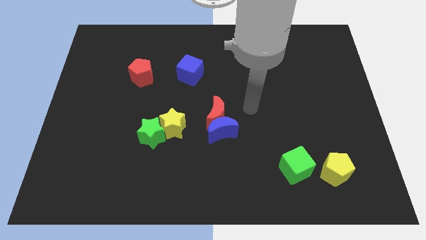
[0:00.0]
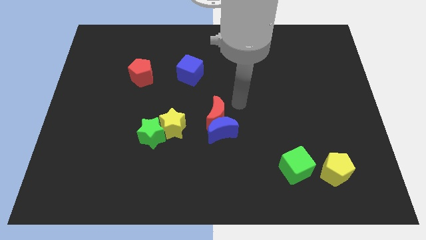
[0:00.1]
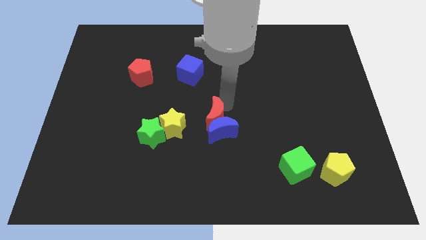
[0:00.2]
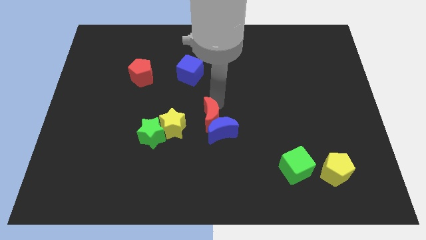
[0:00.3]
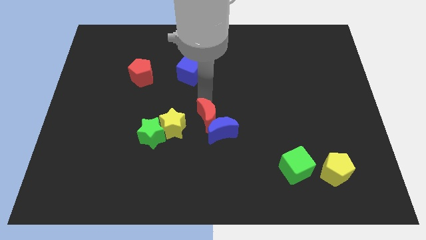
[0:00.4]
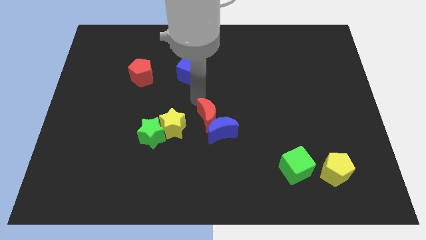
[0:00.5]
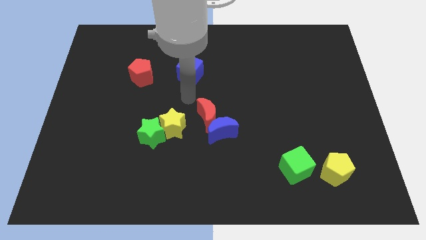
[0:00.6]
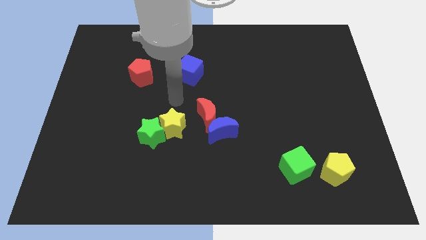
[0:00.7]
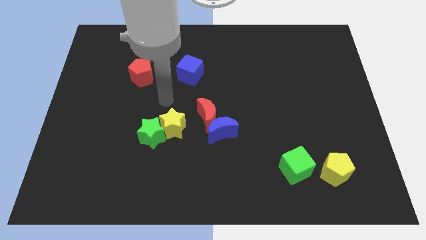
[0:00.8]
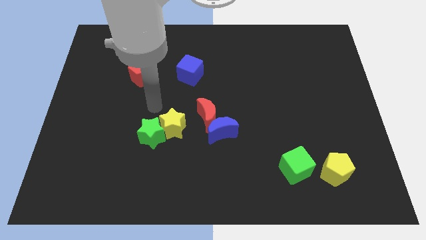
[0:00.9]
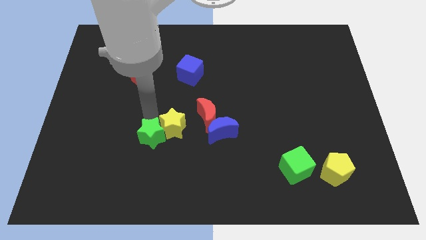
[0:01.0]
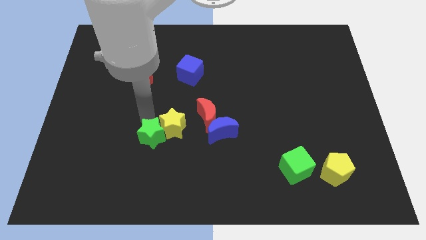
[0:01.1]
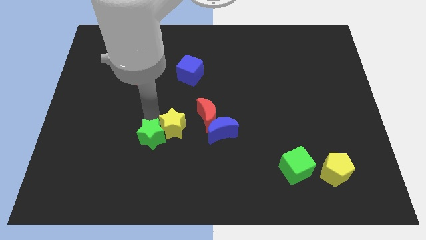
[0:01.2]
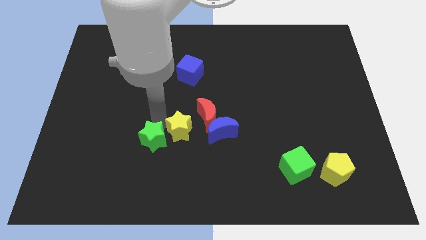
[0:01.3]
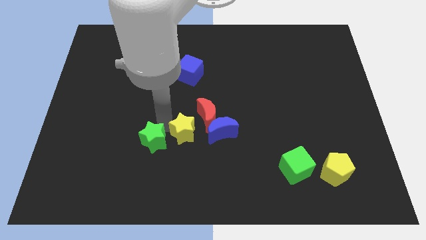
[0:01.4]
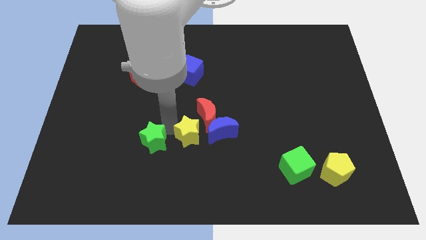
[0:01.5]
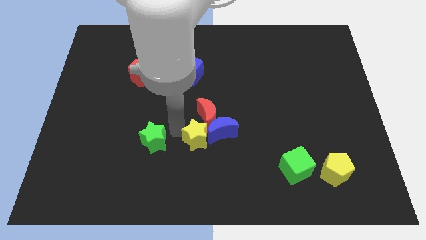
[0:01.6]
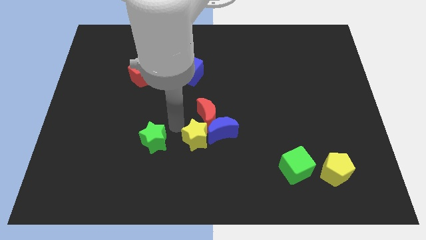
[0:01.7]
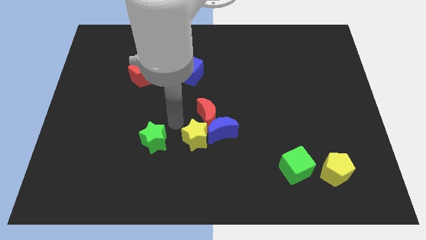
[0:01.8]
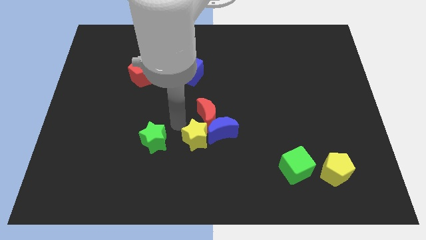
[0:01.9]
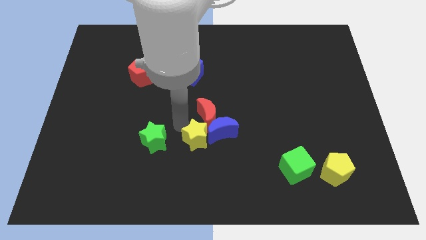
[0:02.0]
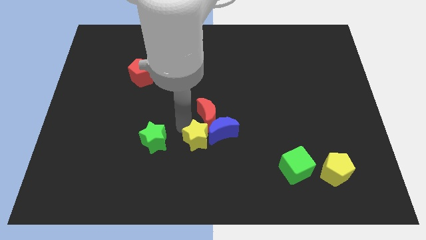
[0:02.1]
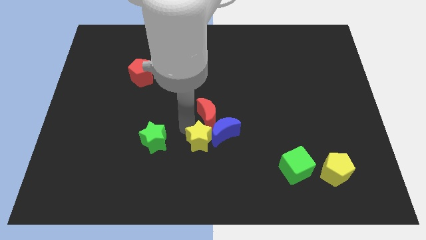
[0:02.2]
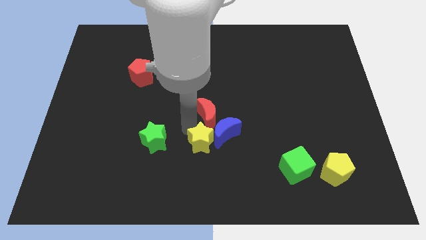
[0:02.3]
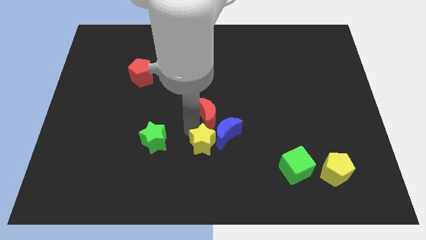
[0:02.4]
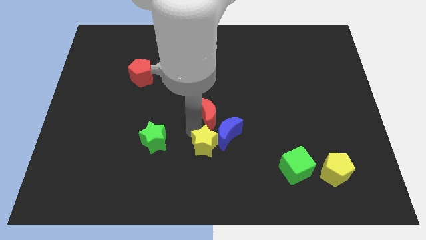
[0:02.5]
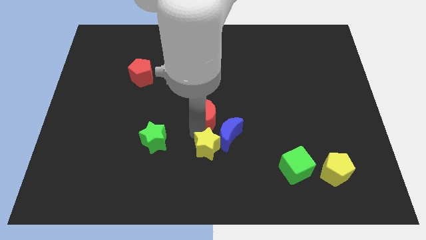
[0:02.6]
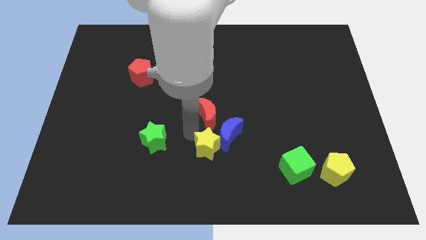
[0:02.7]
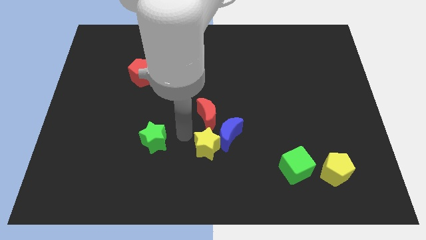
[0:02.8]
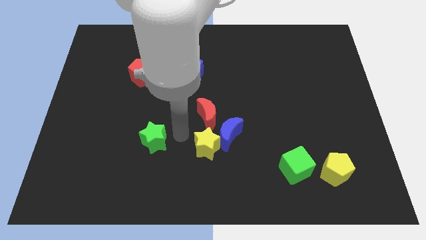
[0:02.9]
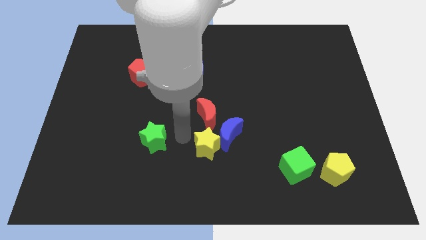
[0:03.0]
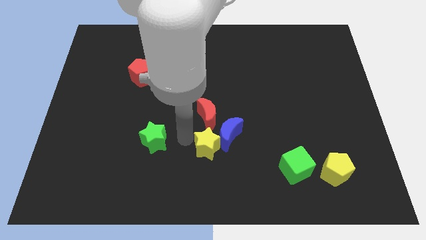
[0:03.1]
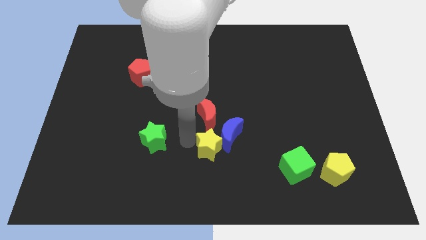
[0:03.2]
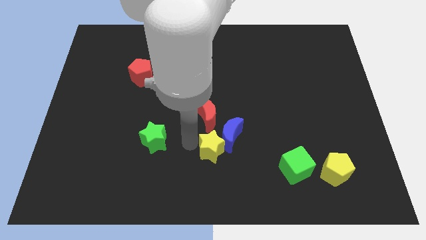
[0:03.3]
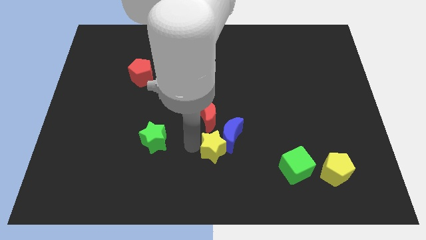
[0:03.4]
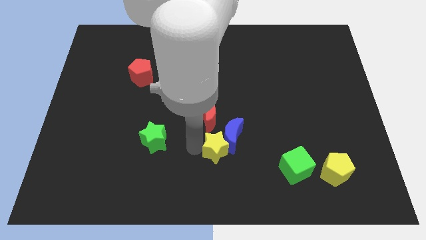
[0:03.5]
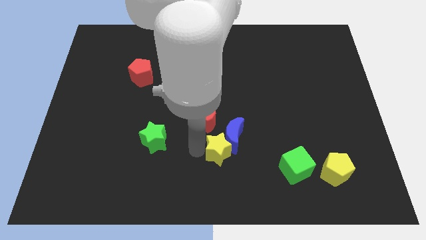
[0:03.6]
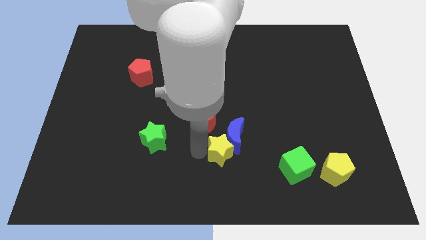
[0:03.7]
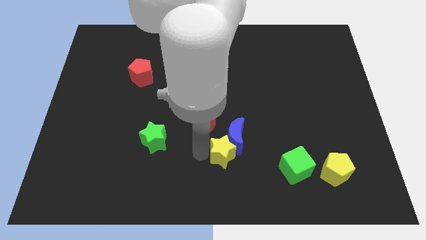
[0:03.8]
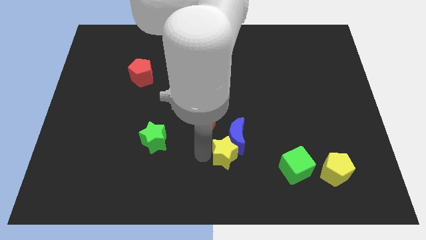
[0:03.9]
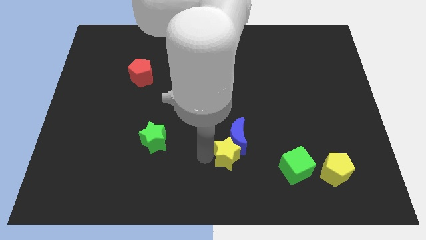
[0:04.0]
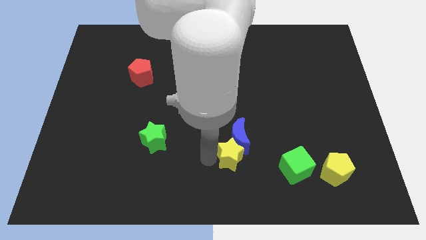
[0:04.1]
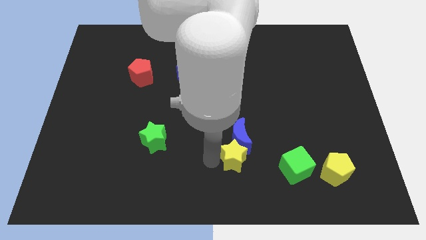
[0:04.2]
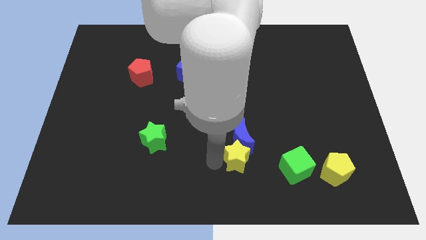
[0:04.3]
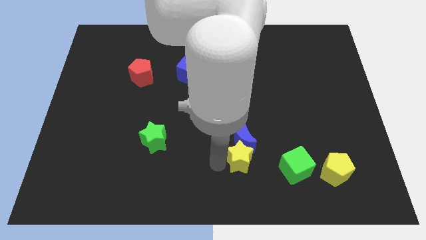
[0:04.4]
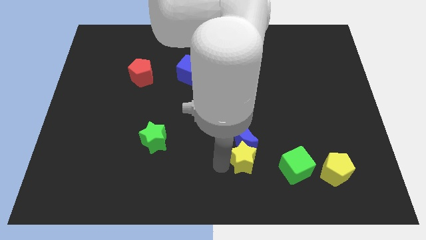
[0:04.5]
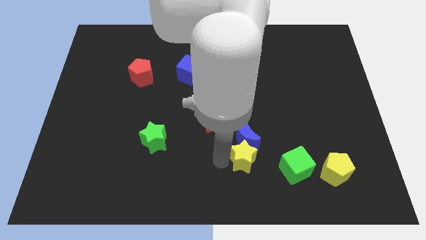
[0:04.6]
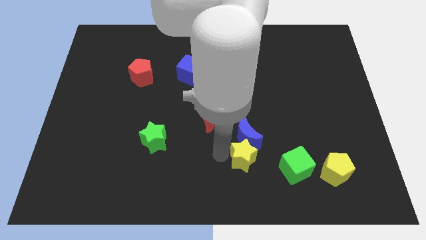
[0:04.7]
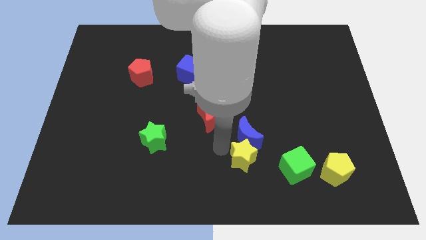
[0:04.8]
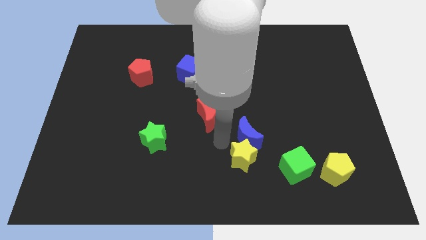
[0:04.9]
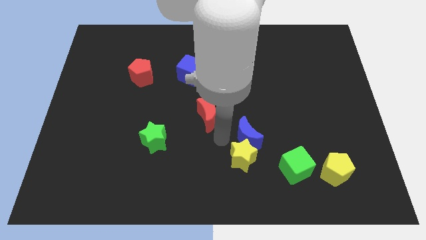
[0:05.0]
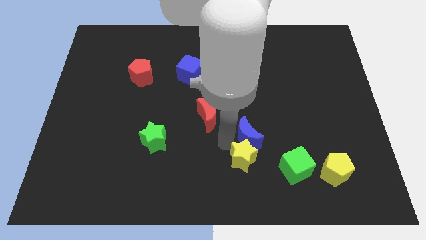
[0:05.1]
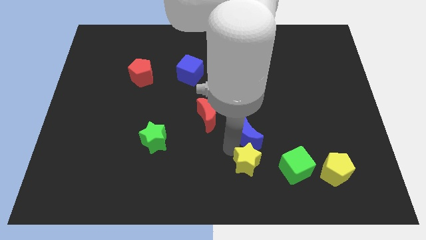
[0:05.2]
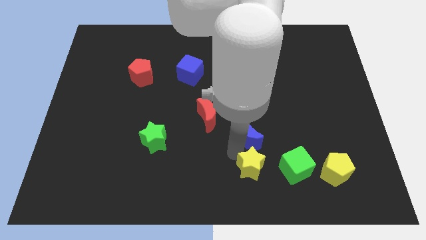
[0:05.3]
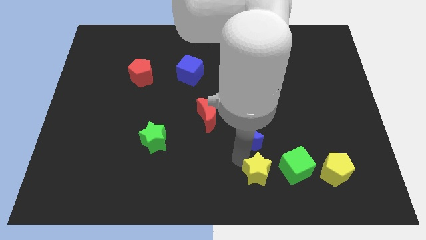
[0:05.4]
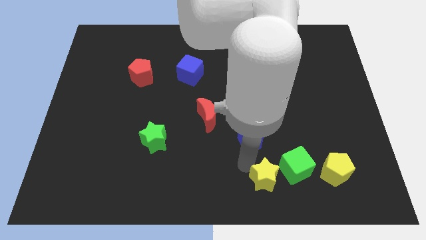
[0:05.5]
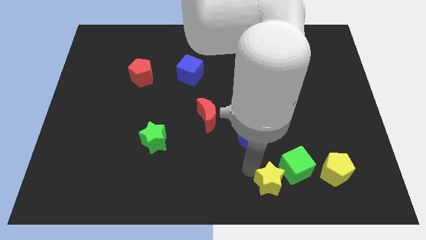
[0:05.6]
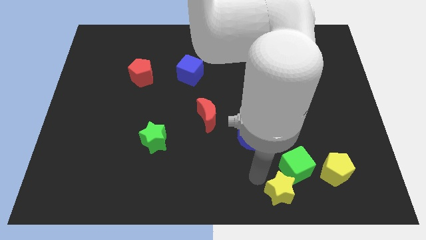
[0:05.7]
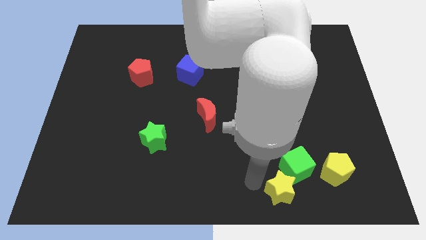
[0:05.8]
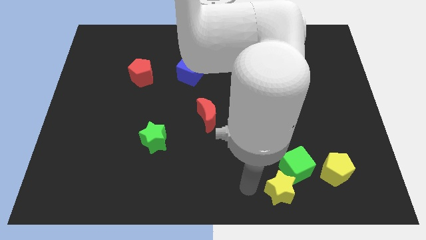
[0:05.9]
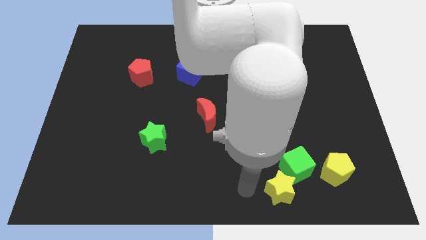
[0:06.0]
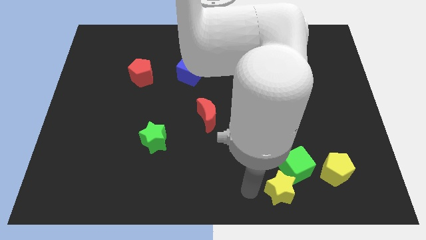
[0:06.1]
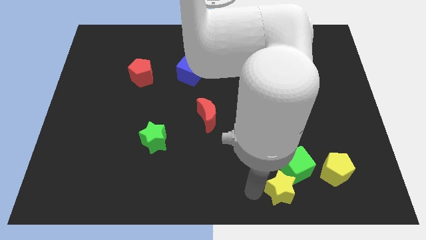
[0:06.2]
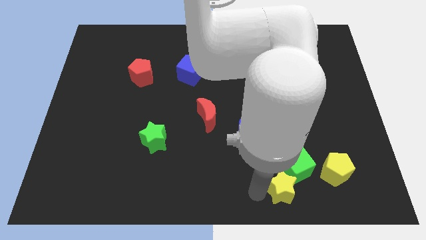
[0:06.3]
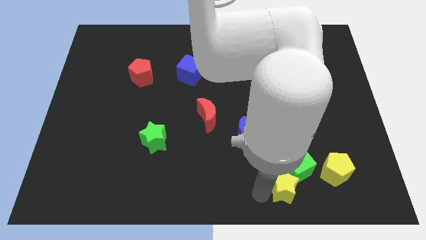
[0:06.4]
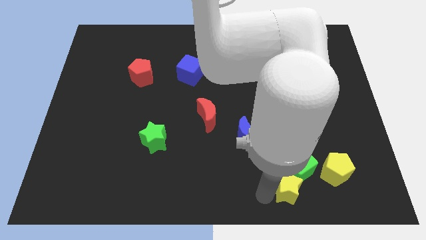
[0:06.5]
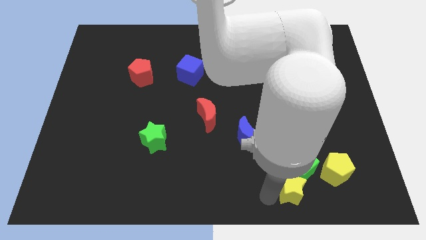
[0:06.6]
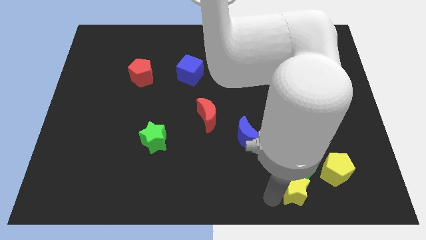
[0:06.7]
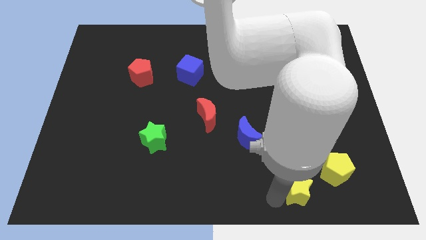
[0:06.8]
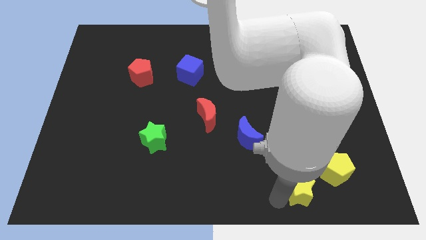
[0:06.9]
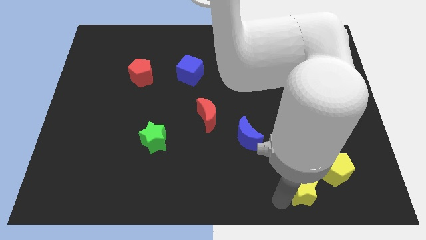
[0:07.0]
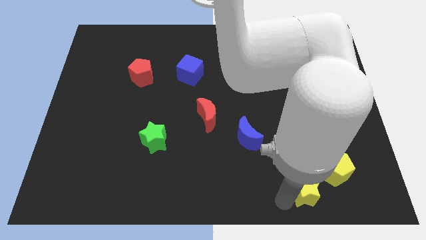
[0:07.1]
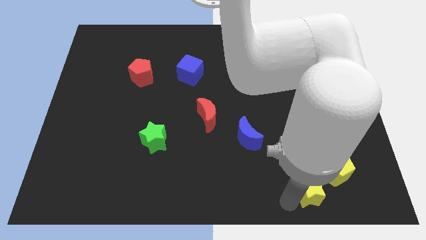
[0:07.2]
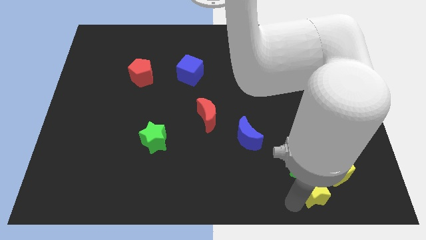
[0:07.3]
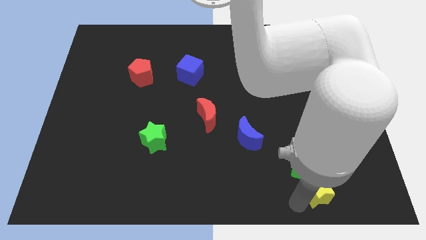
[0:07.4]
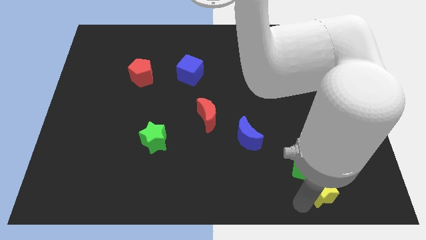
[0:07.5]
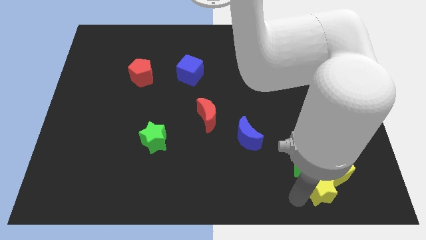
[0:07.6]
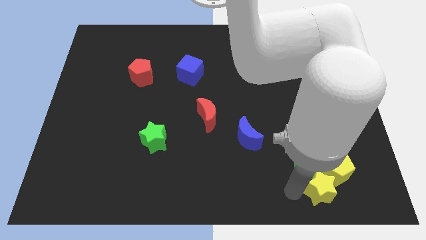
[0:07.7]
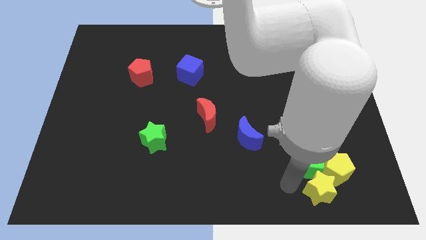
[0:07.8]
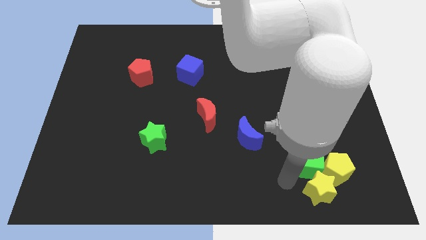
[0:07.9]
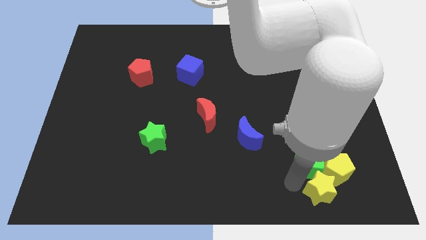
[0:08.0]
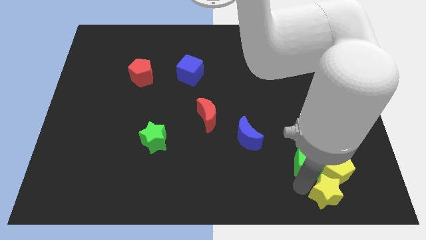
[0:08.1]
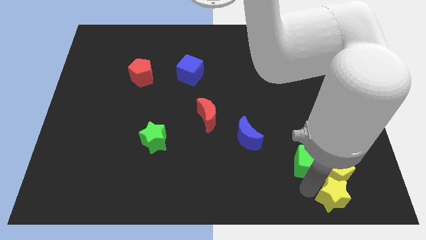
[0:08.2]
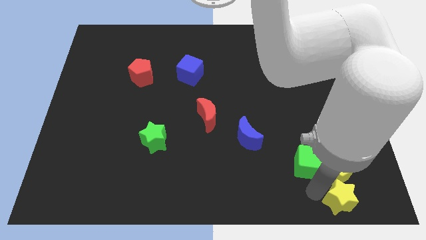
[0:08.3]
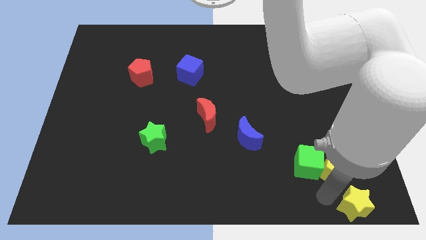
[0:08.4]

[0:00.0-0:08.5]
slide the yellow star to the bottom right corner
